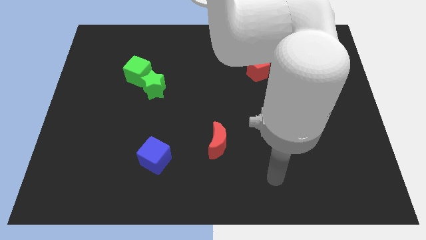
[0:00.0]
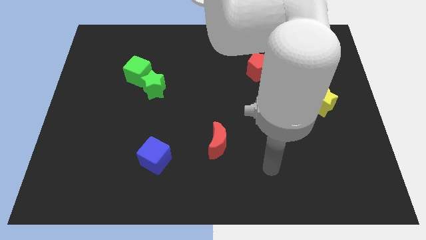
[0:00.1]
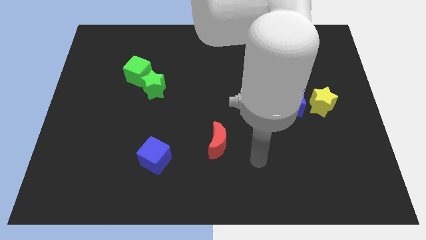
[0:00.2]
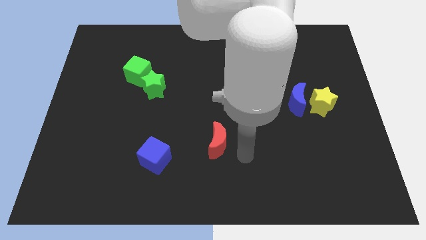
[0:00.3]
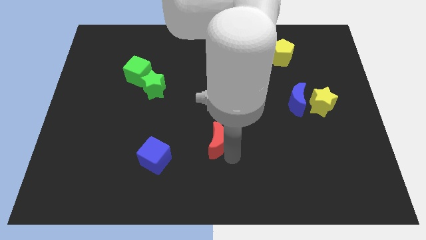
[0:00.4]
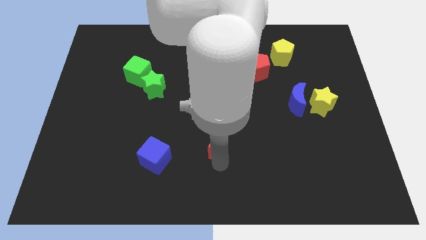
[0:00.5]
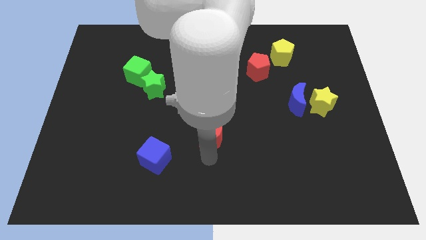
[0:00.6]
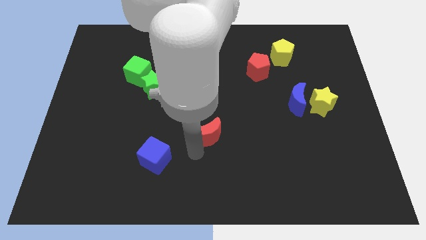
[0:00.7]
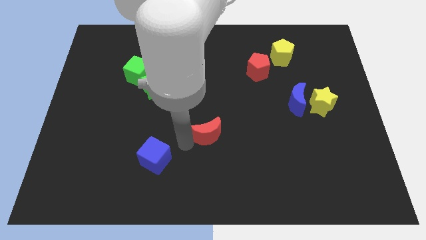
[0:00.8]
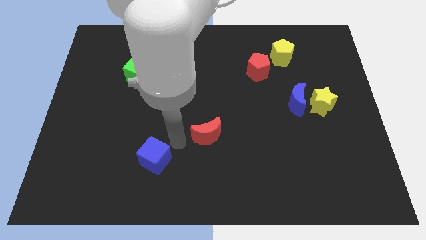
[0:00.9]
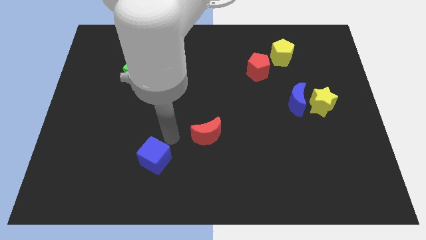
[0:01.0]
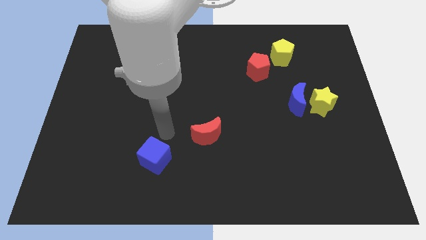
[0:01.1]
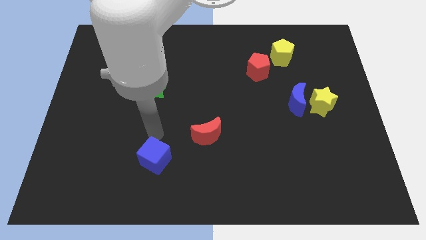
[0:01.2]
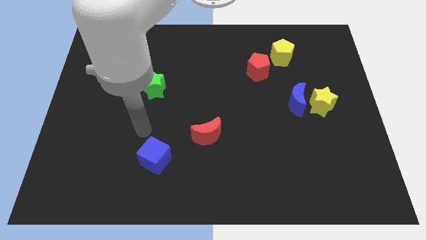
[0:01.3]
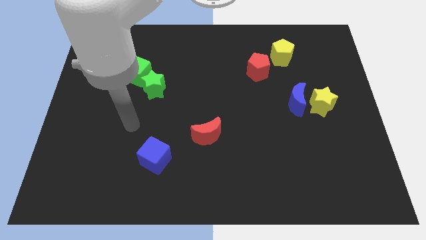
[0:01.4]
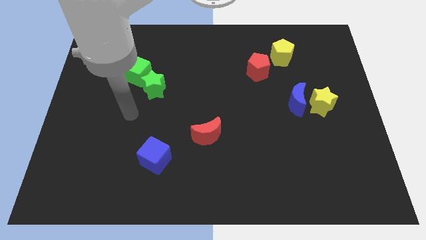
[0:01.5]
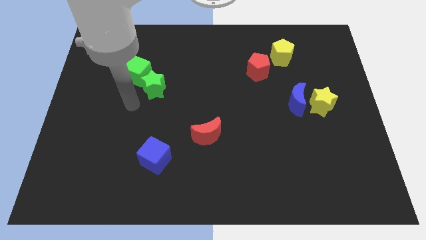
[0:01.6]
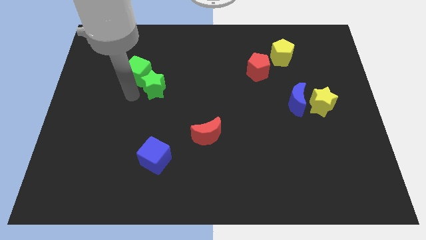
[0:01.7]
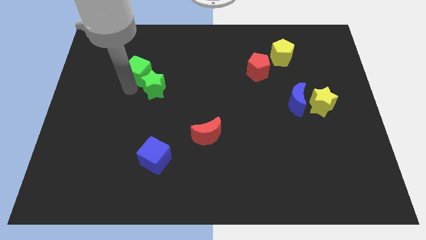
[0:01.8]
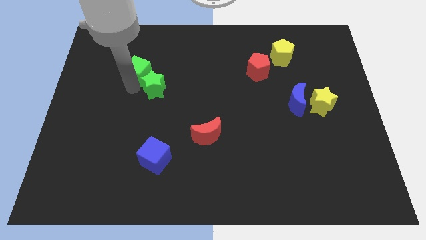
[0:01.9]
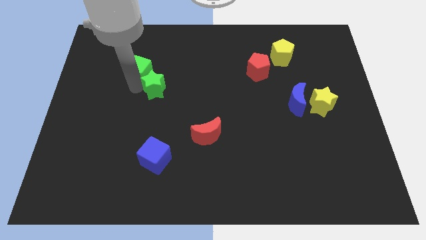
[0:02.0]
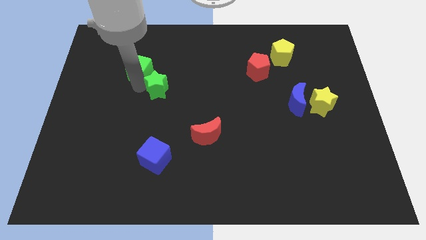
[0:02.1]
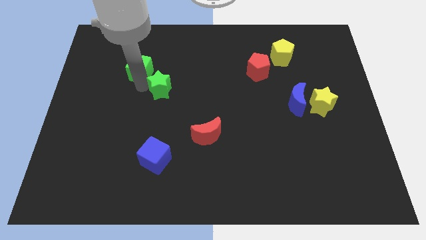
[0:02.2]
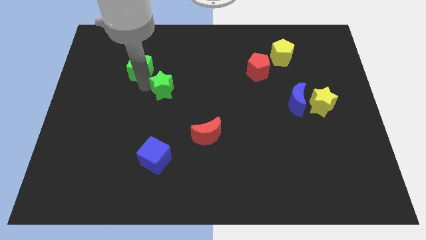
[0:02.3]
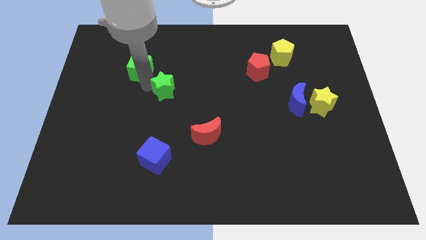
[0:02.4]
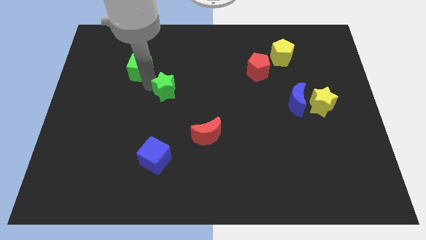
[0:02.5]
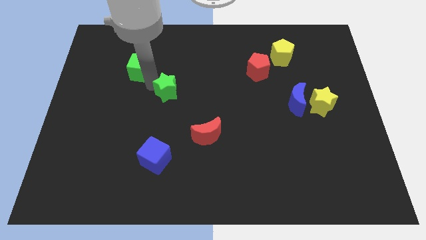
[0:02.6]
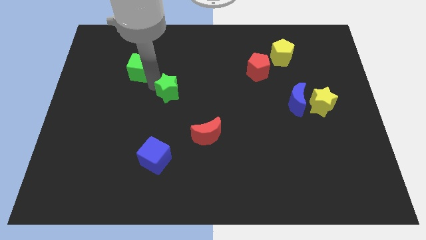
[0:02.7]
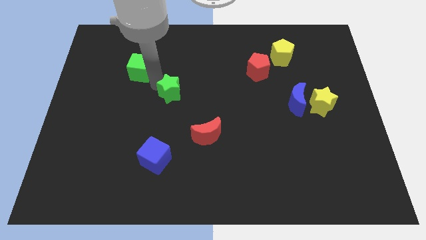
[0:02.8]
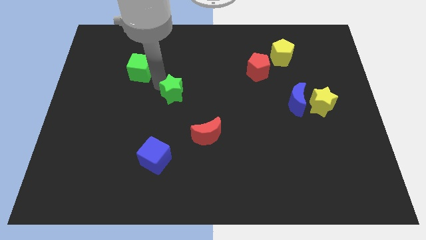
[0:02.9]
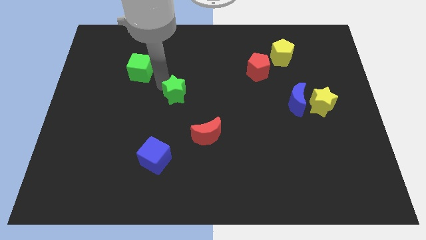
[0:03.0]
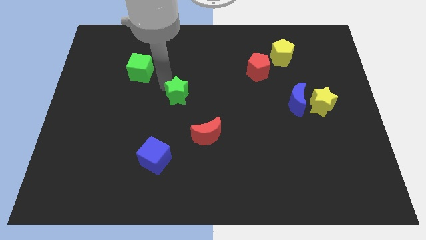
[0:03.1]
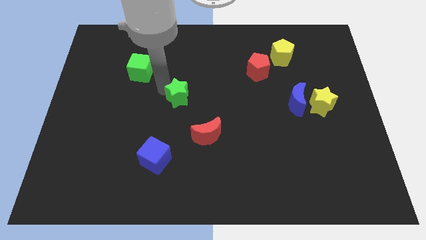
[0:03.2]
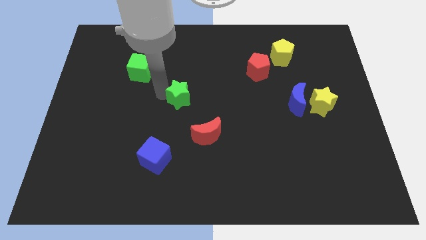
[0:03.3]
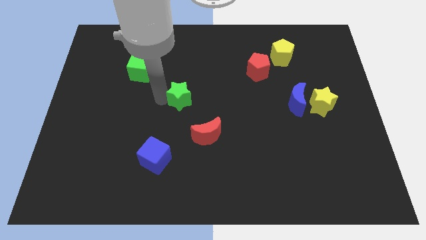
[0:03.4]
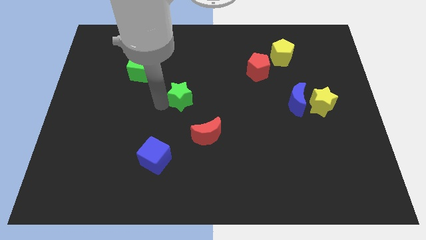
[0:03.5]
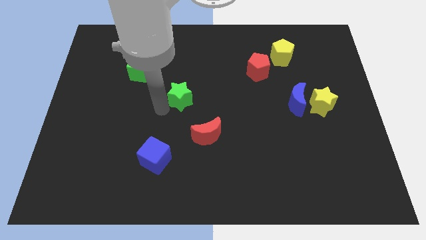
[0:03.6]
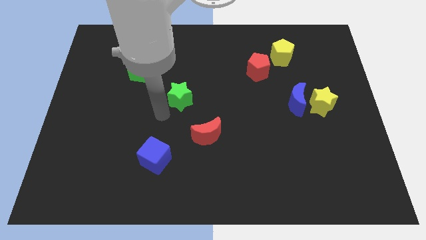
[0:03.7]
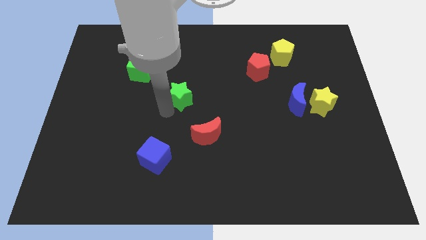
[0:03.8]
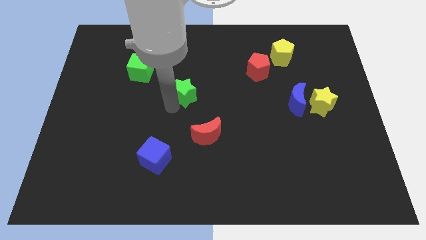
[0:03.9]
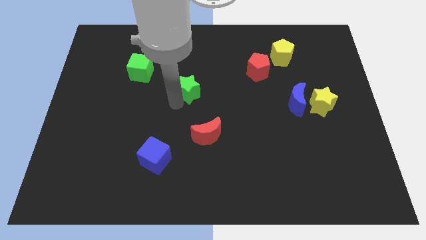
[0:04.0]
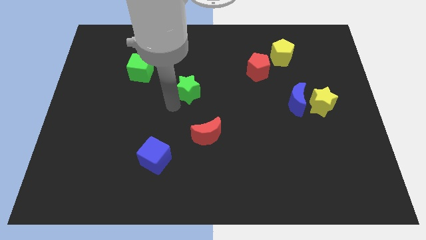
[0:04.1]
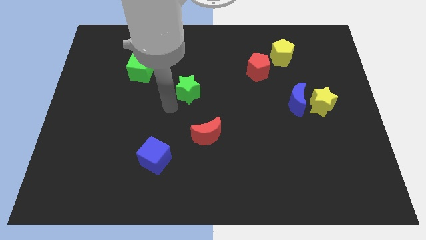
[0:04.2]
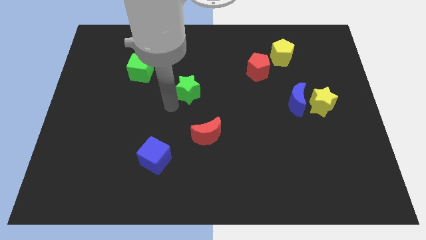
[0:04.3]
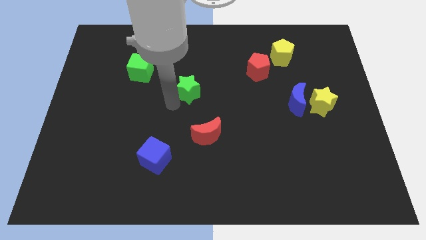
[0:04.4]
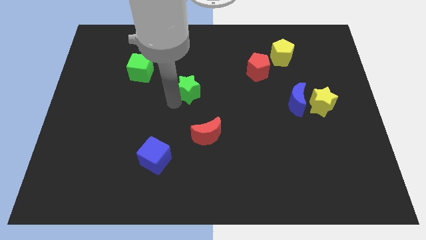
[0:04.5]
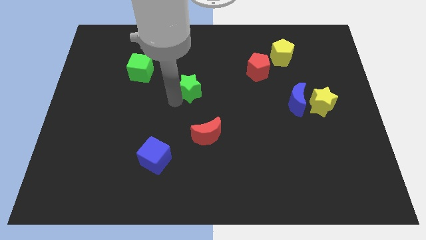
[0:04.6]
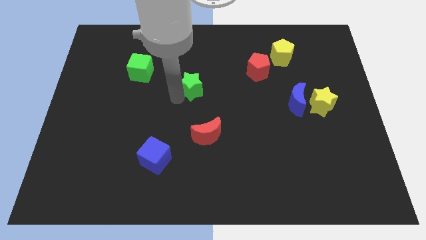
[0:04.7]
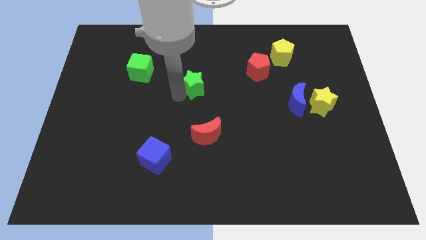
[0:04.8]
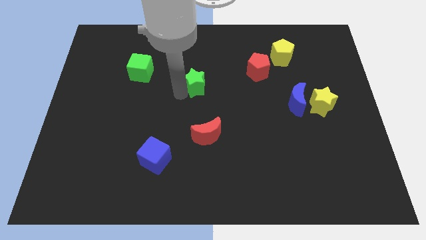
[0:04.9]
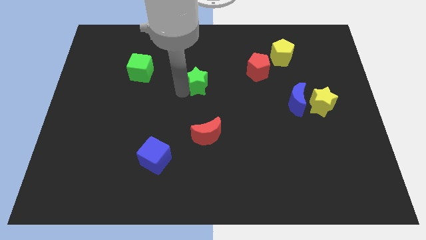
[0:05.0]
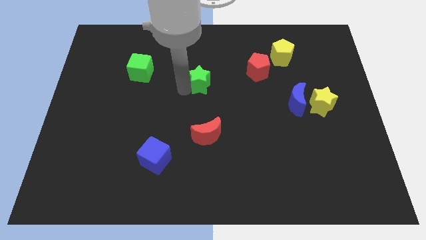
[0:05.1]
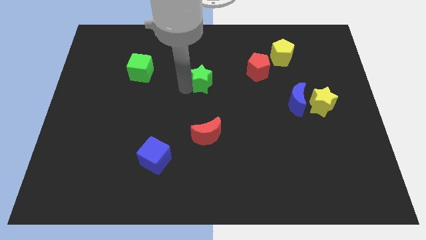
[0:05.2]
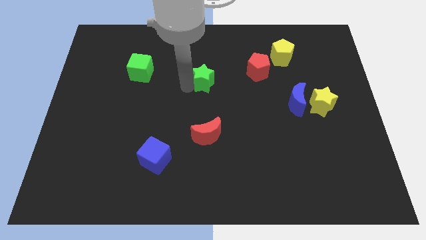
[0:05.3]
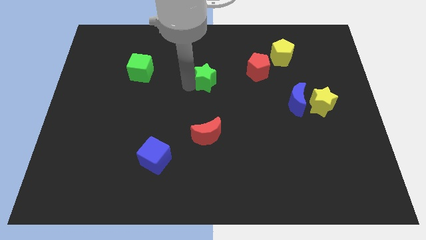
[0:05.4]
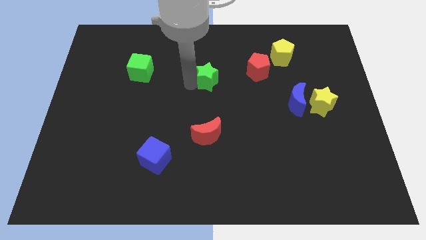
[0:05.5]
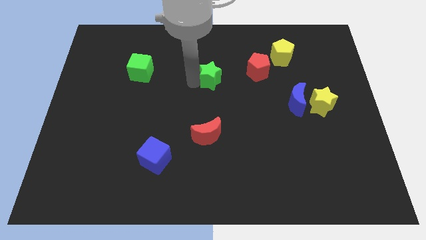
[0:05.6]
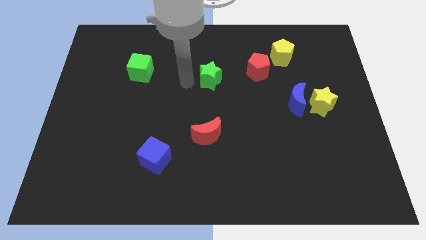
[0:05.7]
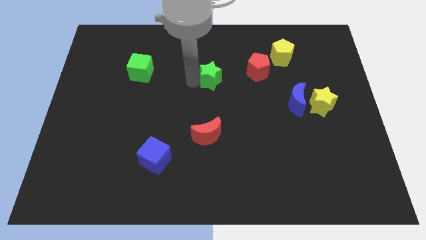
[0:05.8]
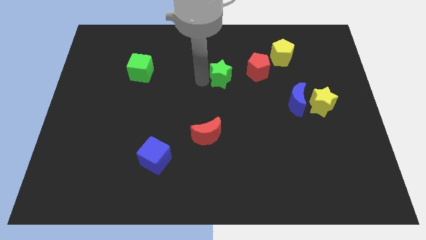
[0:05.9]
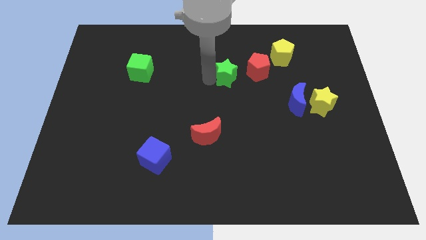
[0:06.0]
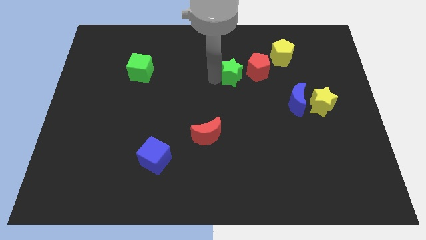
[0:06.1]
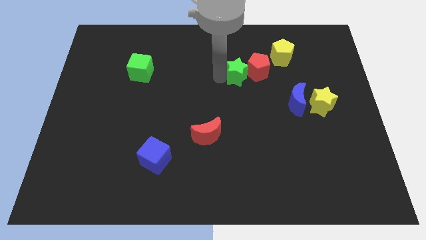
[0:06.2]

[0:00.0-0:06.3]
slide the green star to the red pentagon

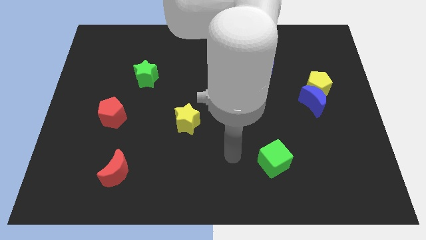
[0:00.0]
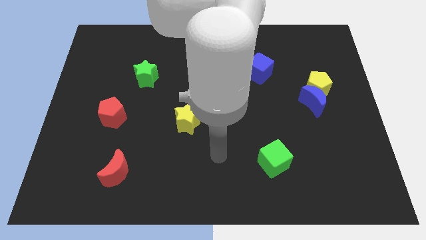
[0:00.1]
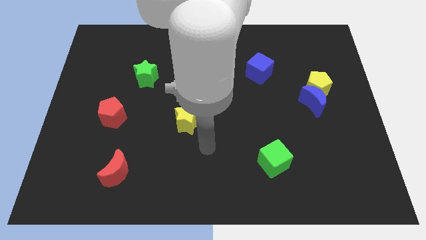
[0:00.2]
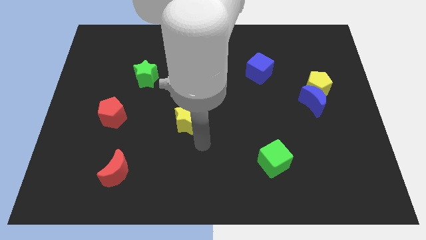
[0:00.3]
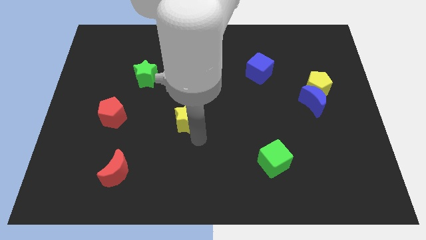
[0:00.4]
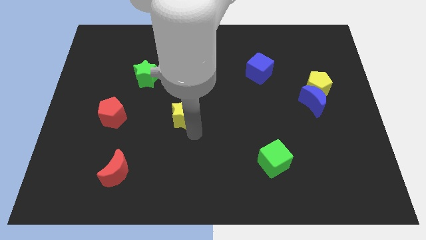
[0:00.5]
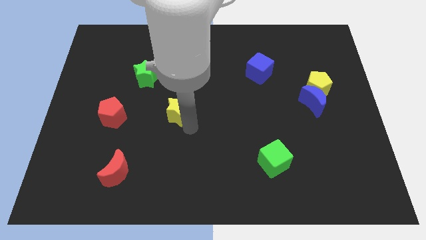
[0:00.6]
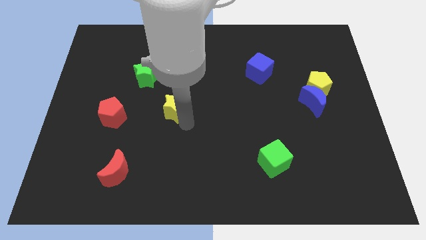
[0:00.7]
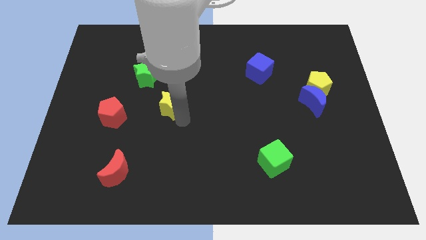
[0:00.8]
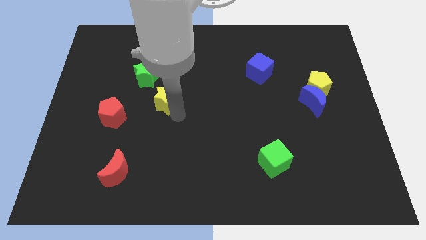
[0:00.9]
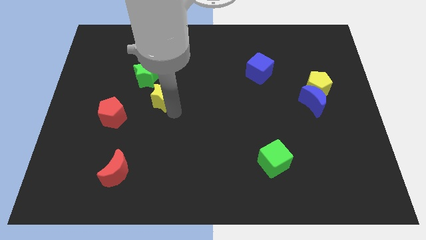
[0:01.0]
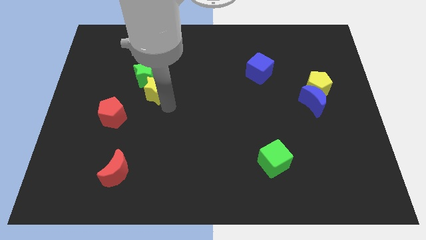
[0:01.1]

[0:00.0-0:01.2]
move the yellow star close to the green star
